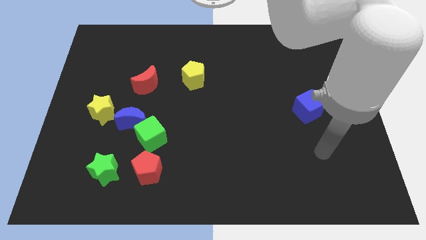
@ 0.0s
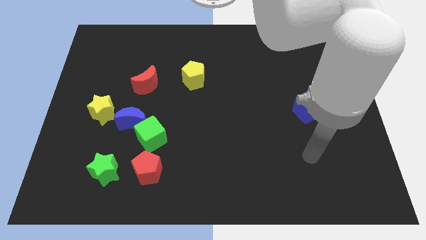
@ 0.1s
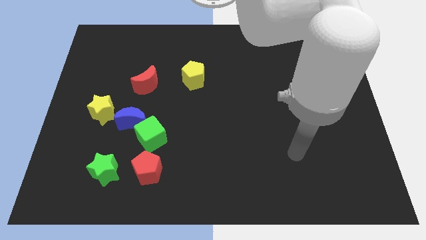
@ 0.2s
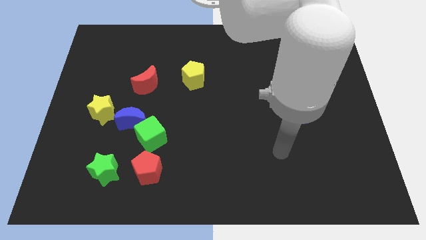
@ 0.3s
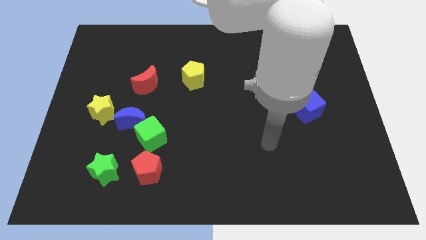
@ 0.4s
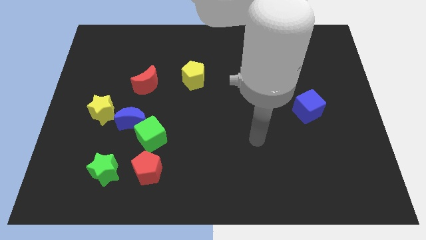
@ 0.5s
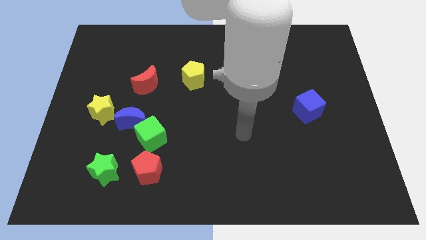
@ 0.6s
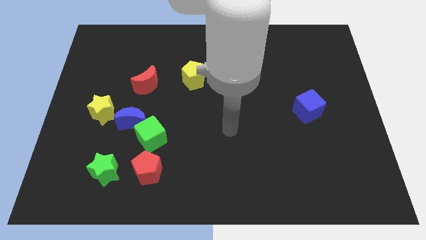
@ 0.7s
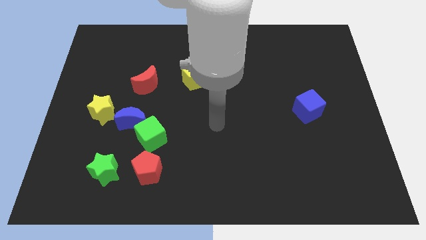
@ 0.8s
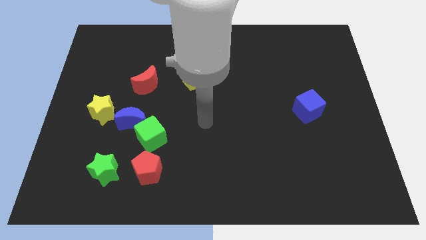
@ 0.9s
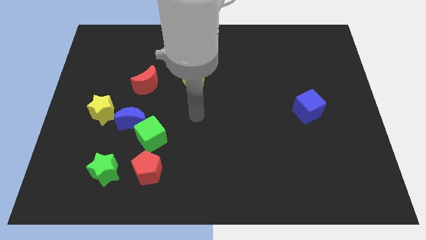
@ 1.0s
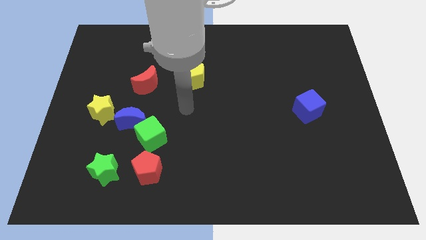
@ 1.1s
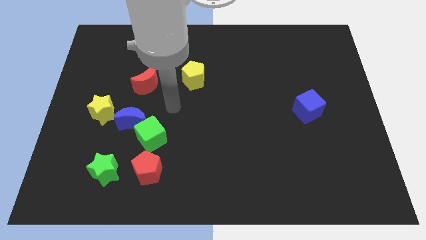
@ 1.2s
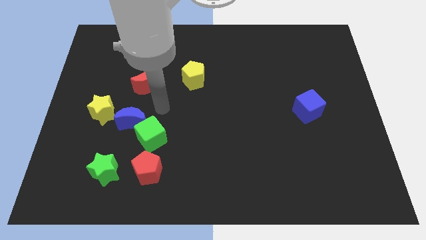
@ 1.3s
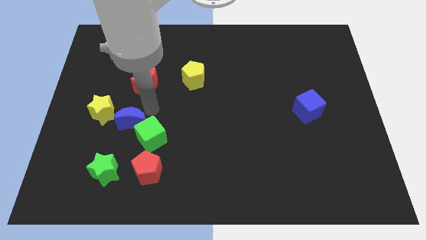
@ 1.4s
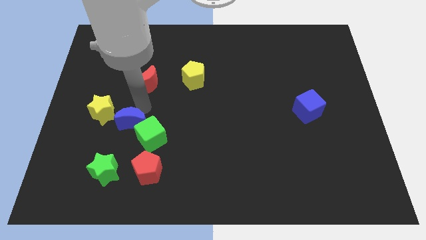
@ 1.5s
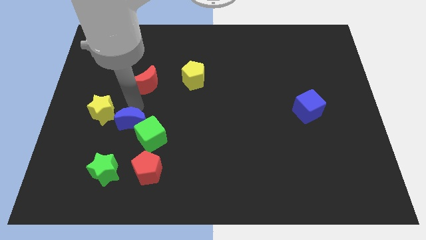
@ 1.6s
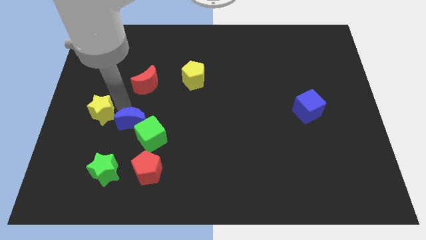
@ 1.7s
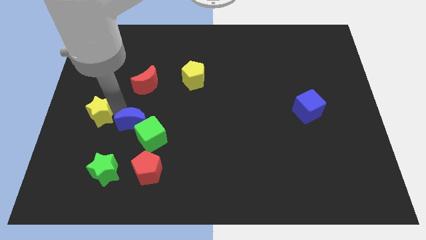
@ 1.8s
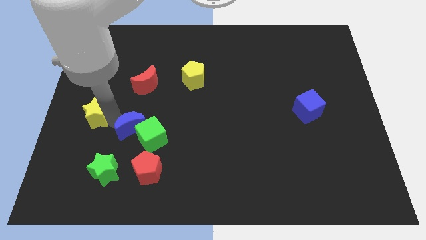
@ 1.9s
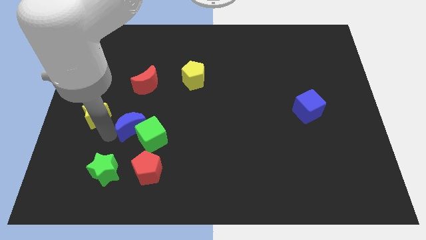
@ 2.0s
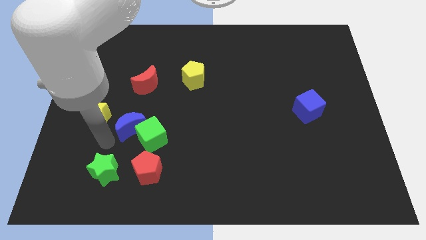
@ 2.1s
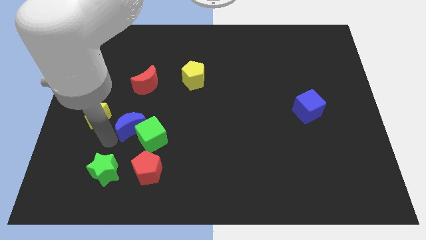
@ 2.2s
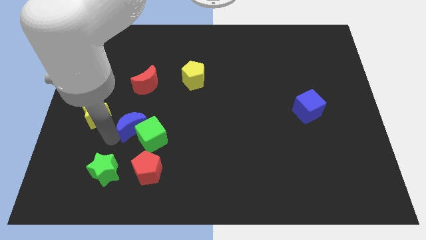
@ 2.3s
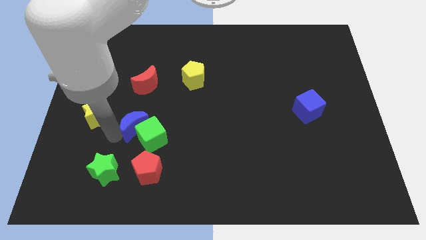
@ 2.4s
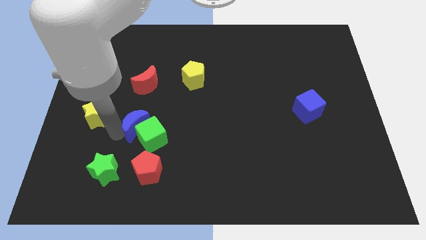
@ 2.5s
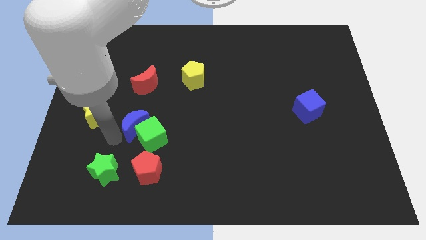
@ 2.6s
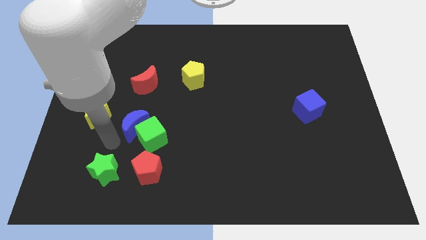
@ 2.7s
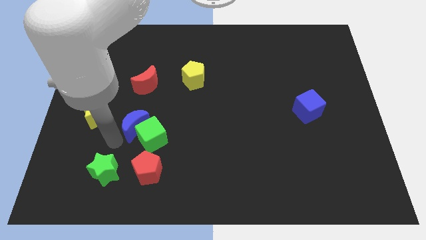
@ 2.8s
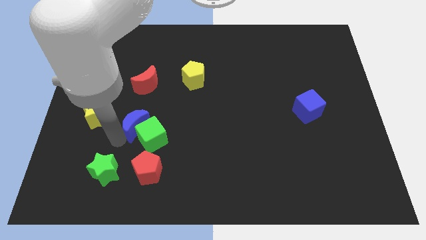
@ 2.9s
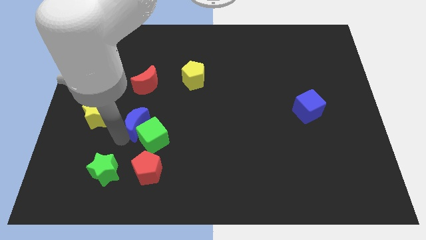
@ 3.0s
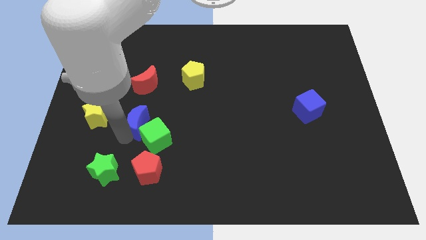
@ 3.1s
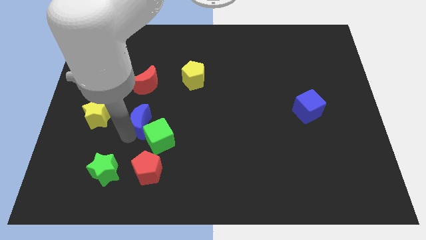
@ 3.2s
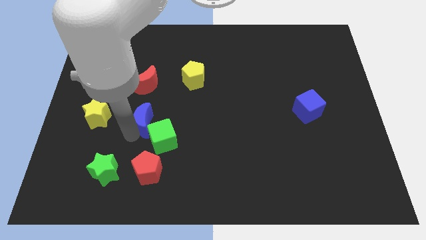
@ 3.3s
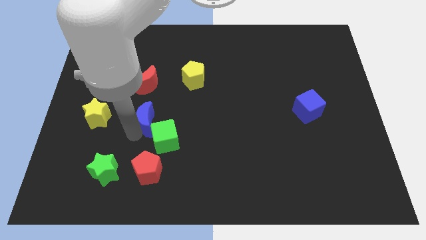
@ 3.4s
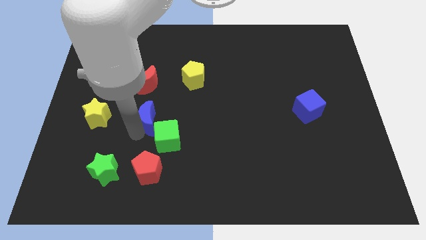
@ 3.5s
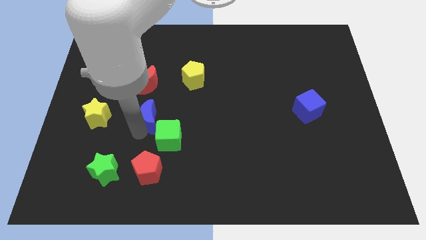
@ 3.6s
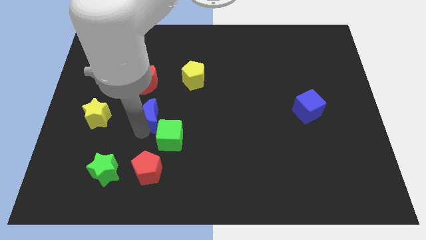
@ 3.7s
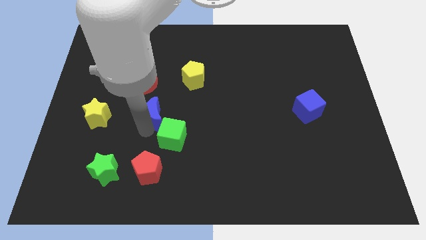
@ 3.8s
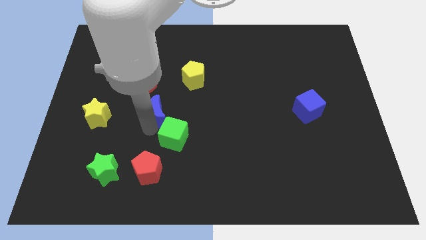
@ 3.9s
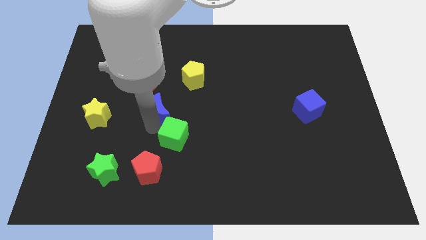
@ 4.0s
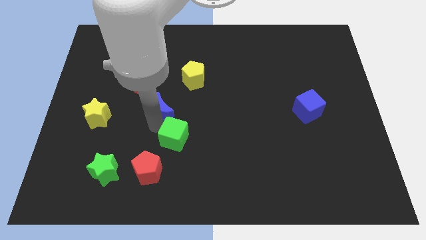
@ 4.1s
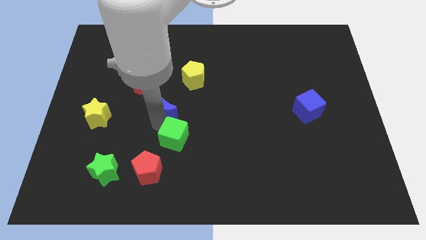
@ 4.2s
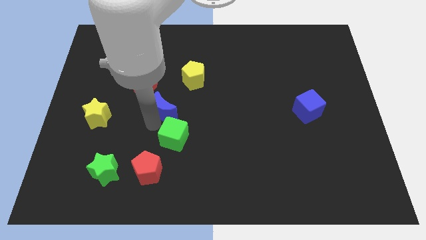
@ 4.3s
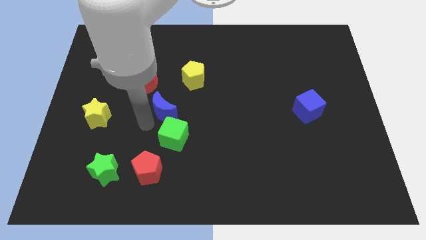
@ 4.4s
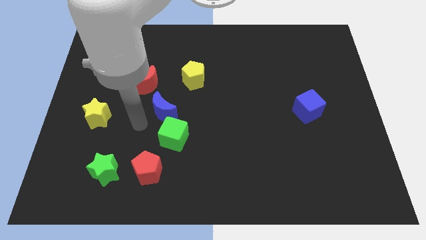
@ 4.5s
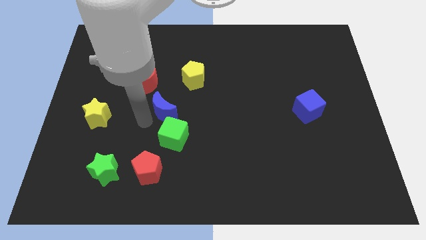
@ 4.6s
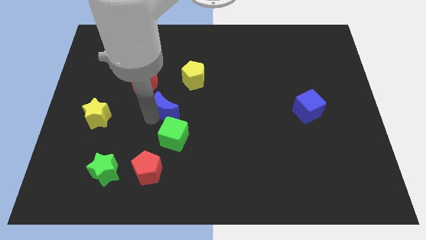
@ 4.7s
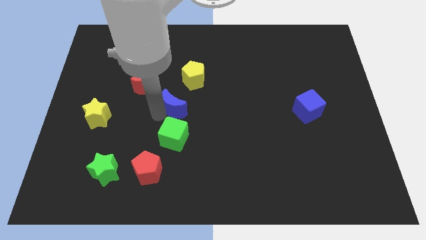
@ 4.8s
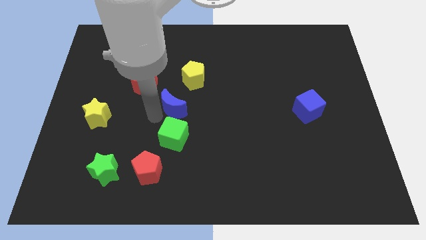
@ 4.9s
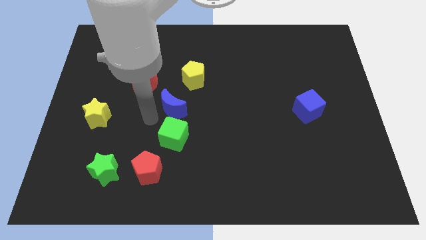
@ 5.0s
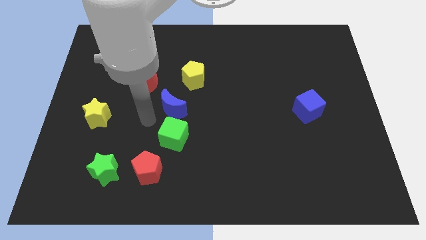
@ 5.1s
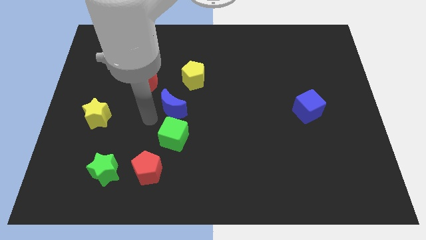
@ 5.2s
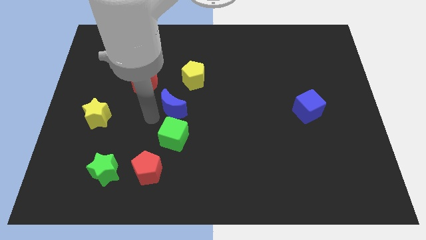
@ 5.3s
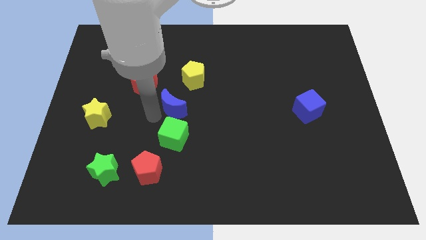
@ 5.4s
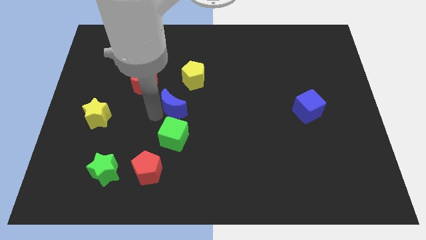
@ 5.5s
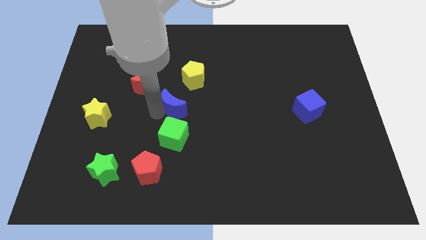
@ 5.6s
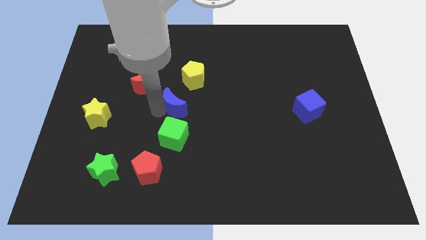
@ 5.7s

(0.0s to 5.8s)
pull the blue moon apart from the green cube and yellow star

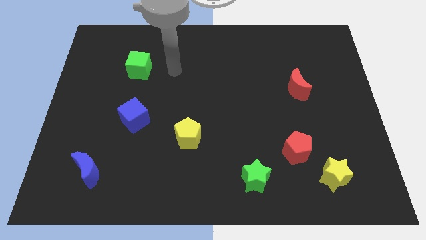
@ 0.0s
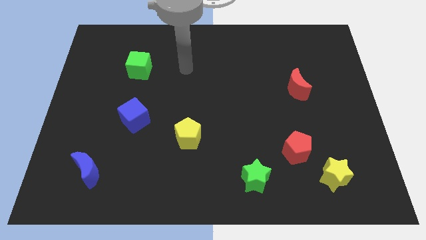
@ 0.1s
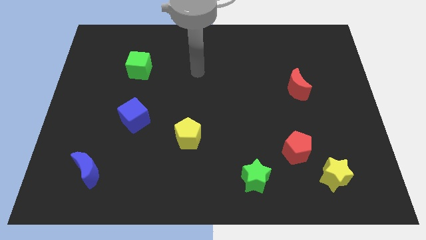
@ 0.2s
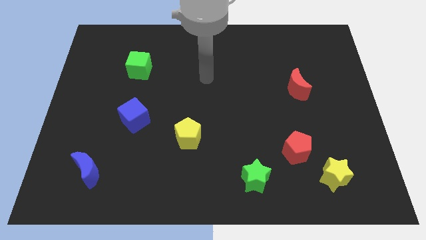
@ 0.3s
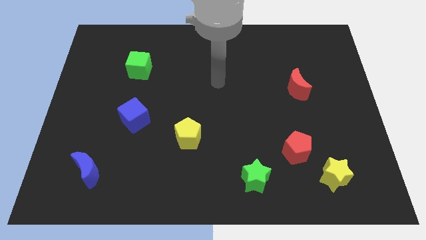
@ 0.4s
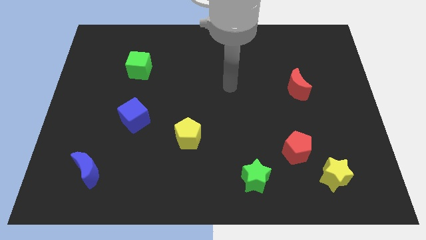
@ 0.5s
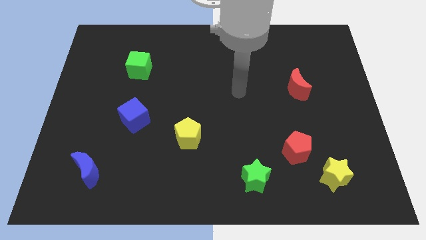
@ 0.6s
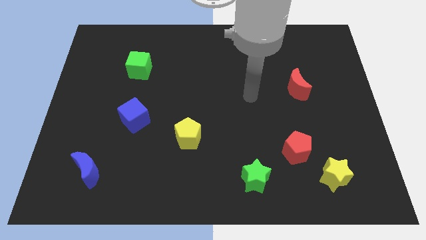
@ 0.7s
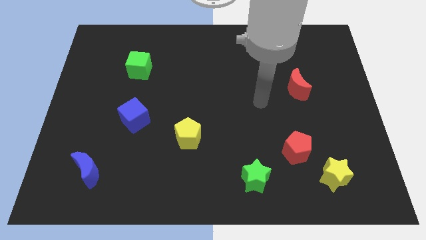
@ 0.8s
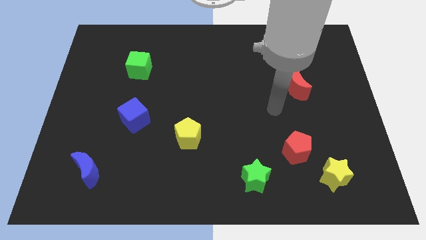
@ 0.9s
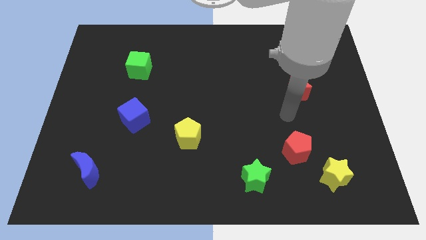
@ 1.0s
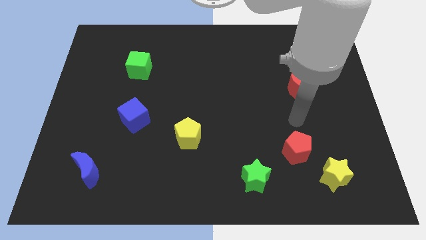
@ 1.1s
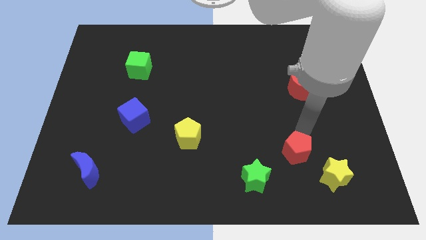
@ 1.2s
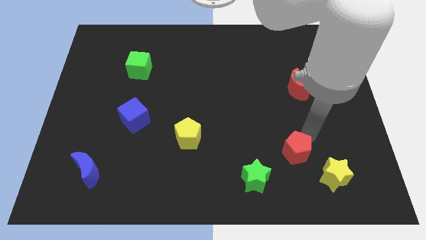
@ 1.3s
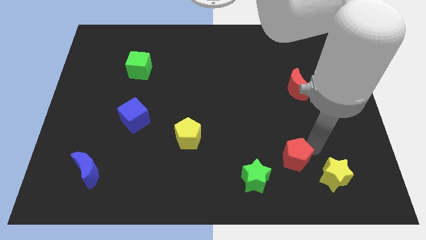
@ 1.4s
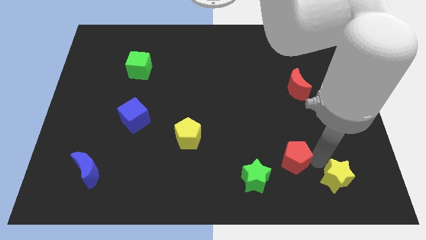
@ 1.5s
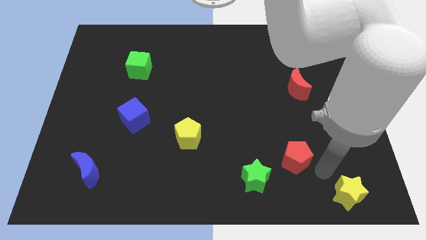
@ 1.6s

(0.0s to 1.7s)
separate the red pentagon from the yellow star

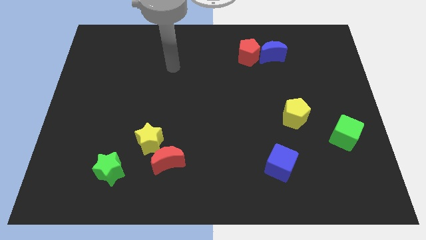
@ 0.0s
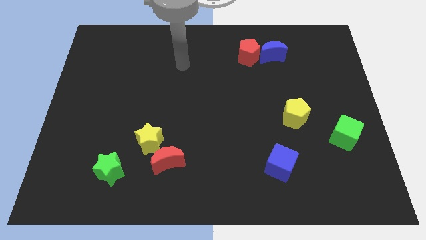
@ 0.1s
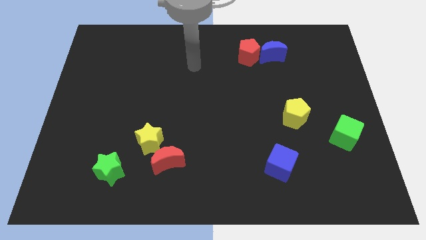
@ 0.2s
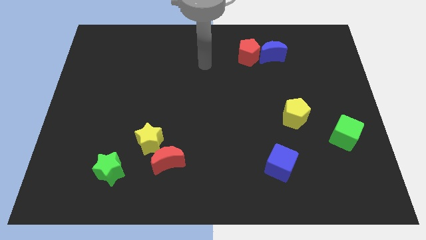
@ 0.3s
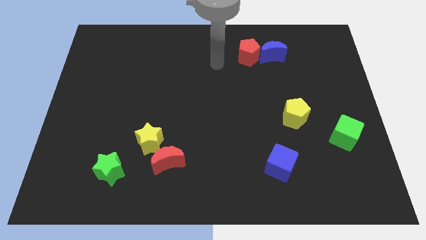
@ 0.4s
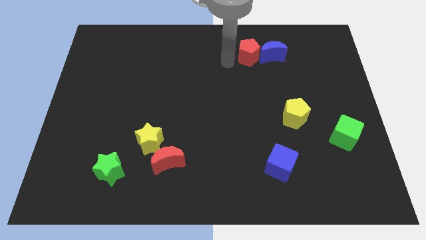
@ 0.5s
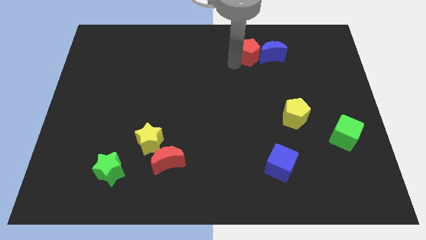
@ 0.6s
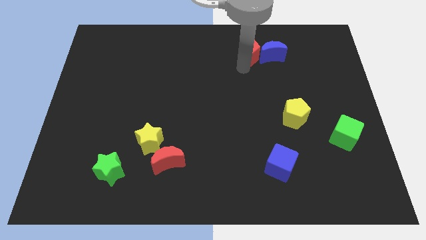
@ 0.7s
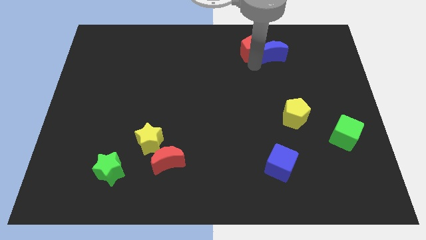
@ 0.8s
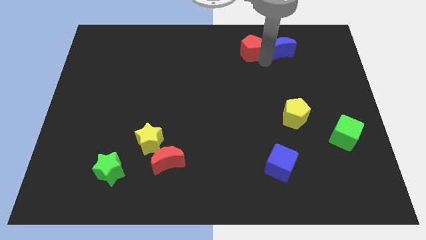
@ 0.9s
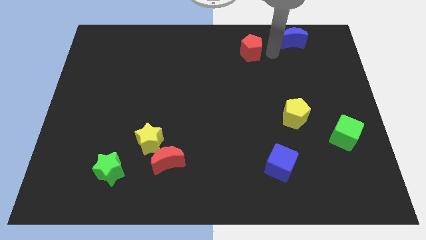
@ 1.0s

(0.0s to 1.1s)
pull the red pentagon apart from the blue moon

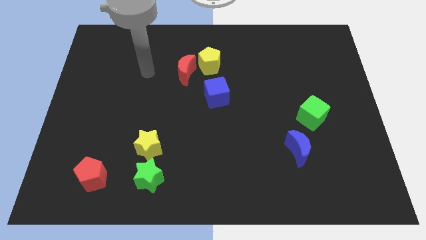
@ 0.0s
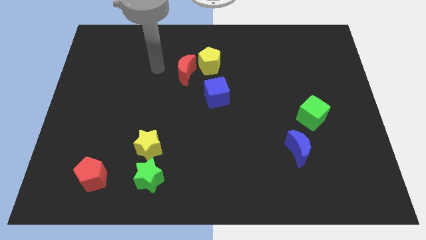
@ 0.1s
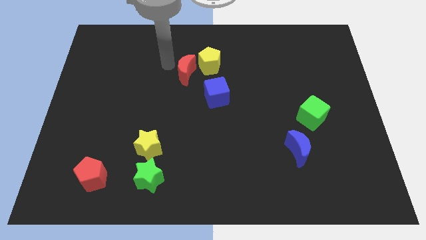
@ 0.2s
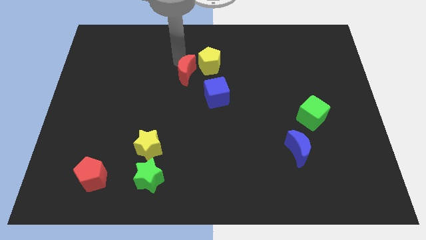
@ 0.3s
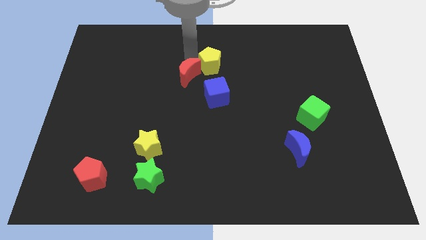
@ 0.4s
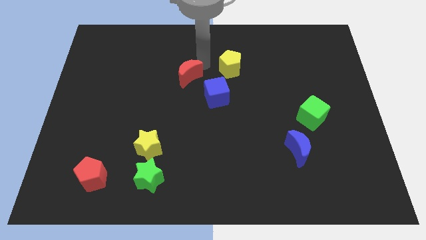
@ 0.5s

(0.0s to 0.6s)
separate the red moon from the yellow pentagon

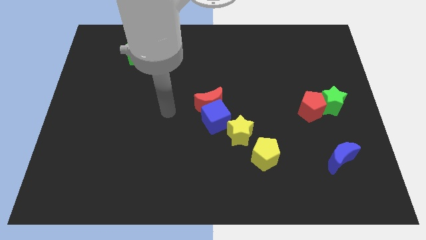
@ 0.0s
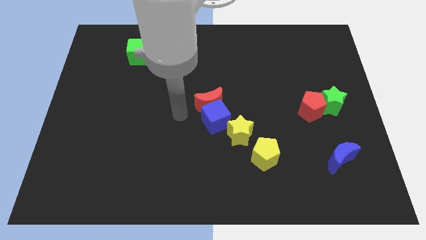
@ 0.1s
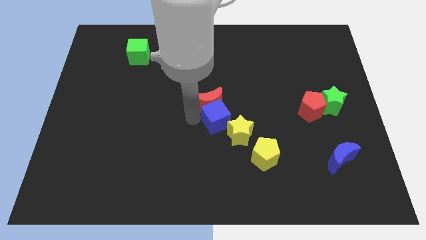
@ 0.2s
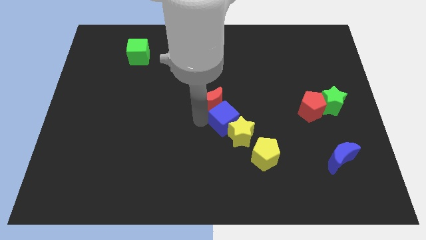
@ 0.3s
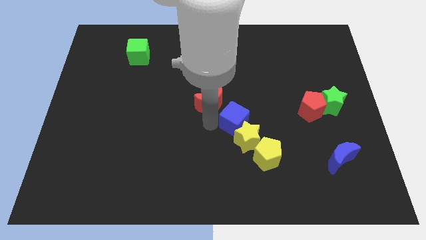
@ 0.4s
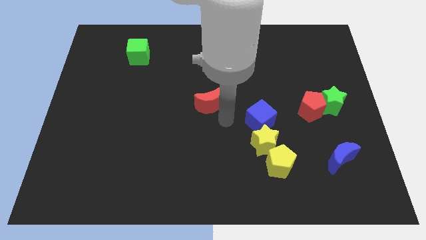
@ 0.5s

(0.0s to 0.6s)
pull the red moon apart from the blue cube
